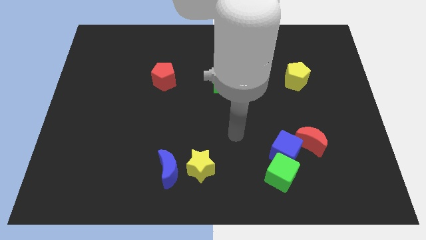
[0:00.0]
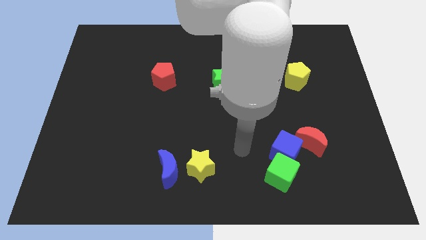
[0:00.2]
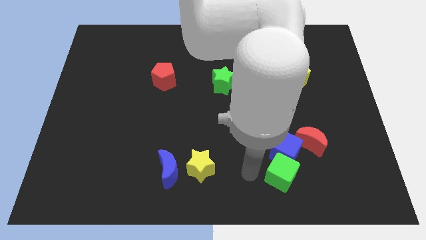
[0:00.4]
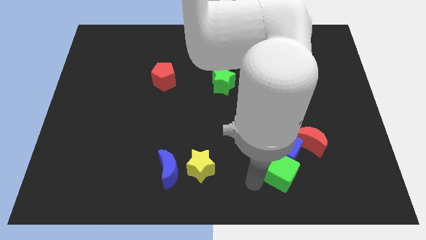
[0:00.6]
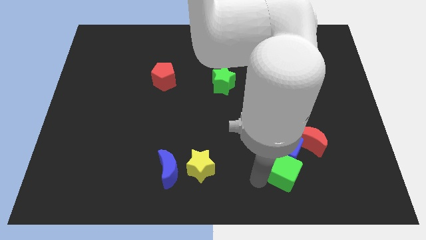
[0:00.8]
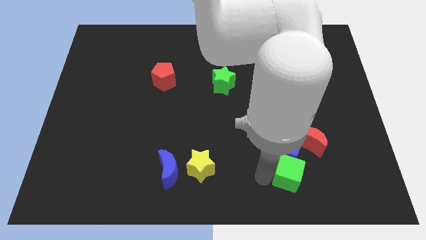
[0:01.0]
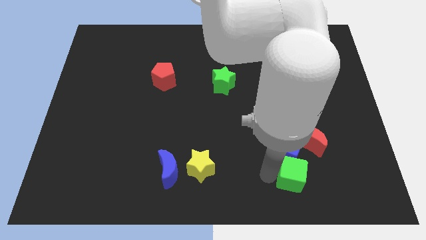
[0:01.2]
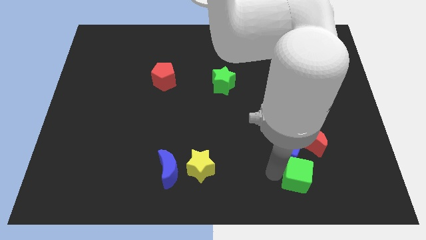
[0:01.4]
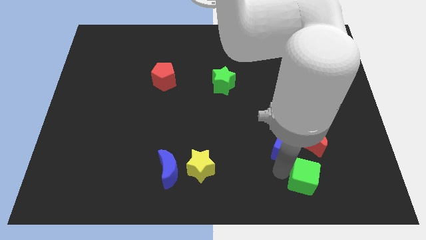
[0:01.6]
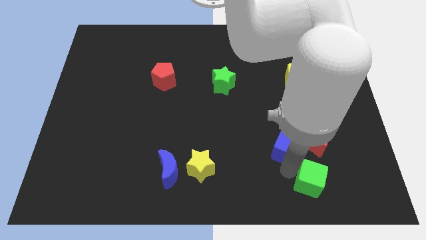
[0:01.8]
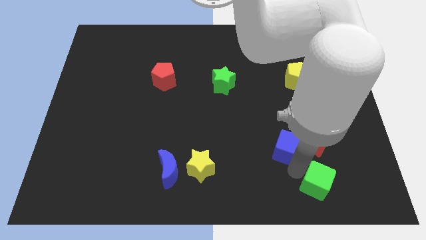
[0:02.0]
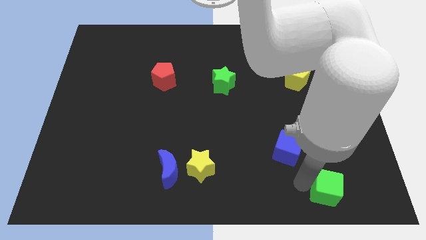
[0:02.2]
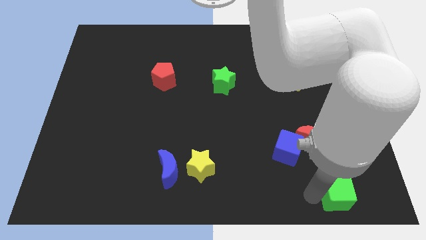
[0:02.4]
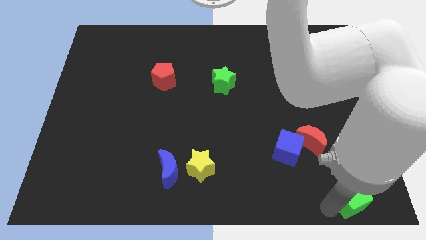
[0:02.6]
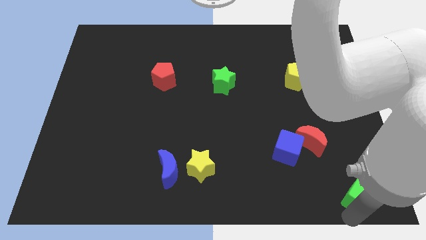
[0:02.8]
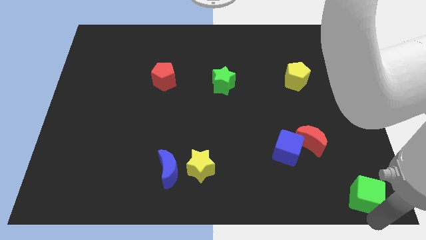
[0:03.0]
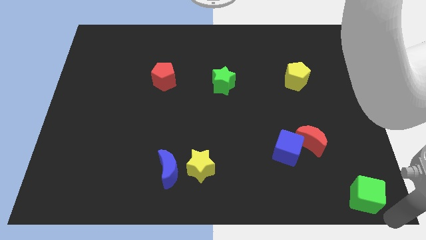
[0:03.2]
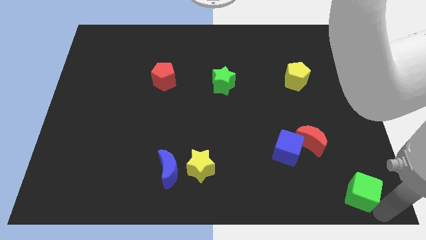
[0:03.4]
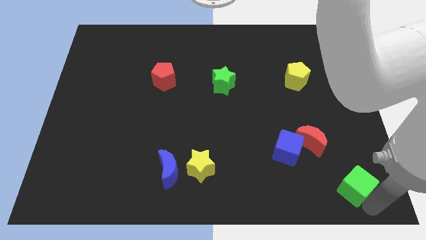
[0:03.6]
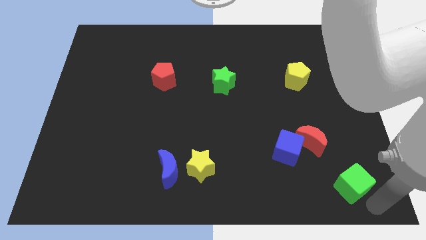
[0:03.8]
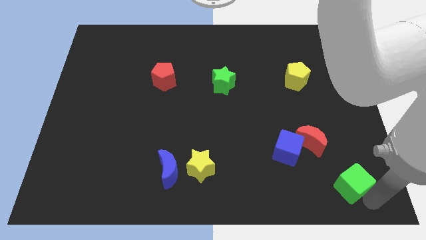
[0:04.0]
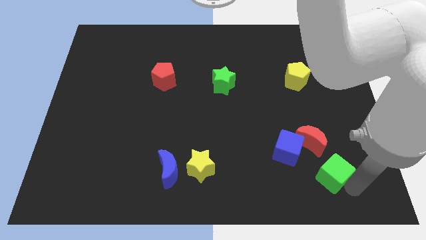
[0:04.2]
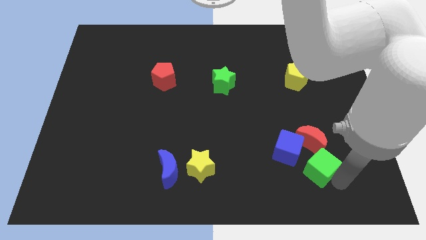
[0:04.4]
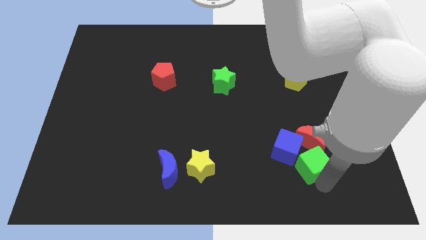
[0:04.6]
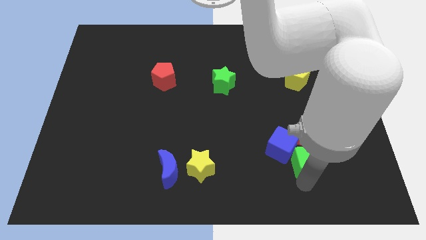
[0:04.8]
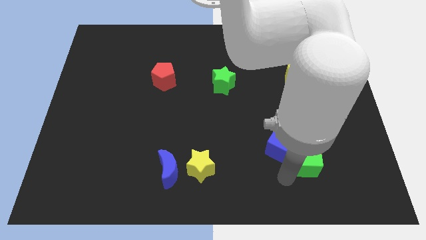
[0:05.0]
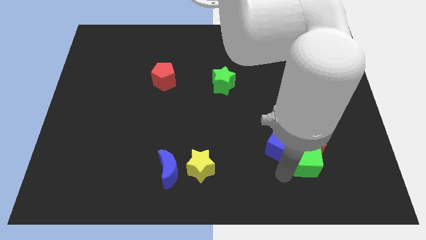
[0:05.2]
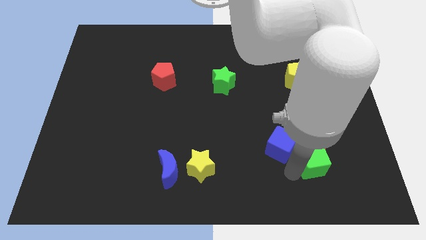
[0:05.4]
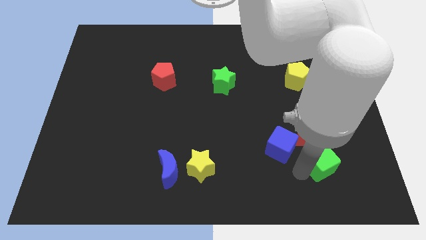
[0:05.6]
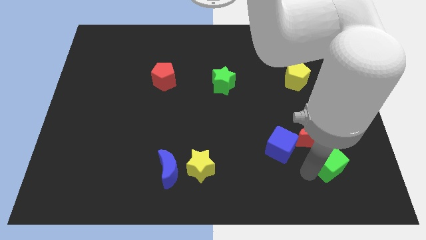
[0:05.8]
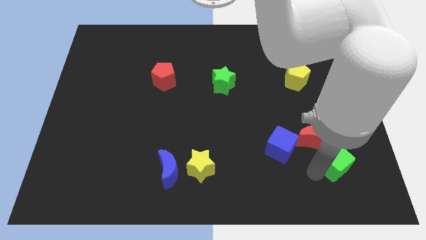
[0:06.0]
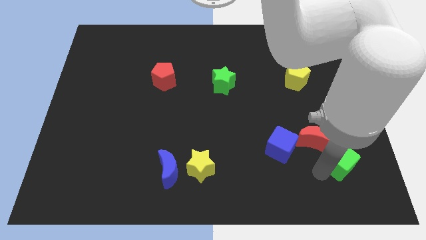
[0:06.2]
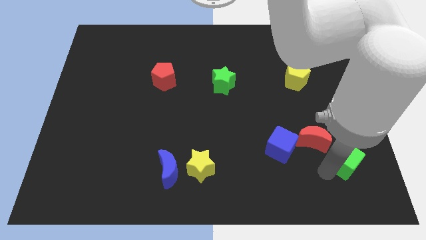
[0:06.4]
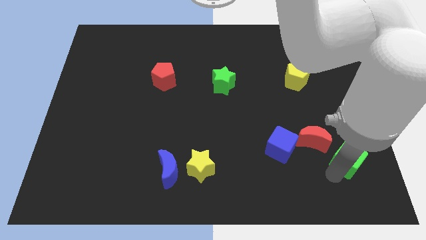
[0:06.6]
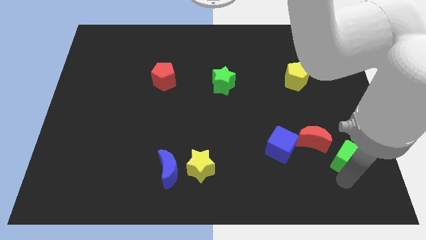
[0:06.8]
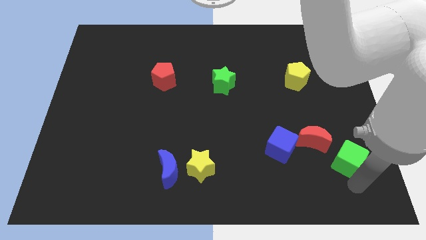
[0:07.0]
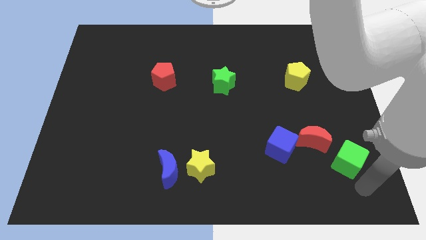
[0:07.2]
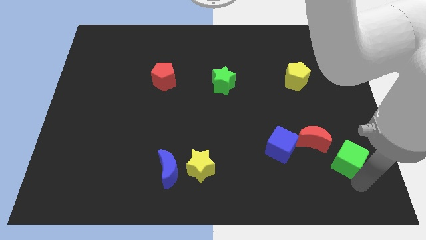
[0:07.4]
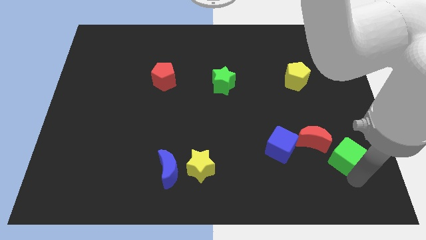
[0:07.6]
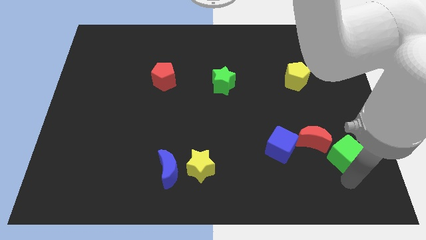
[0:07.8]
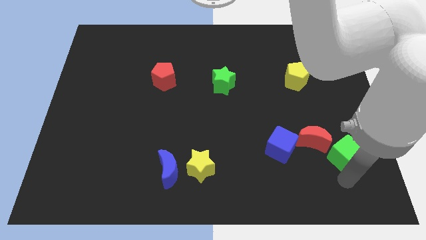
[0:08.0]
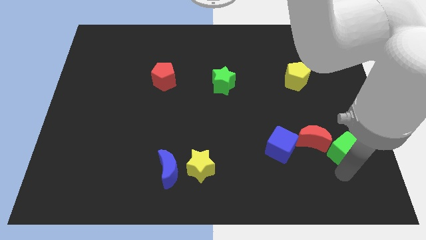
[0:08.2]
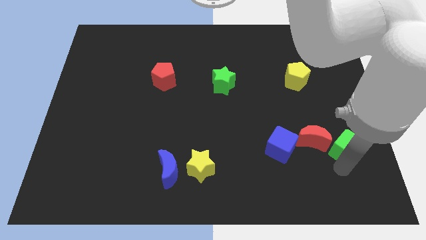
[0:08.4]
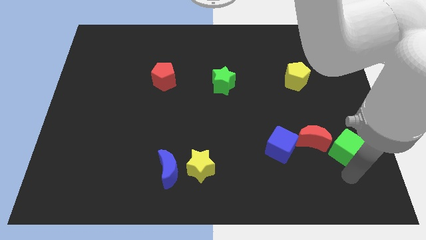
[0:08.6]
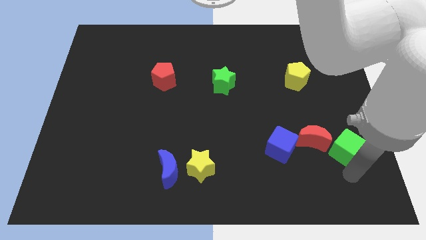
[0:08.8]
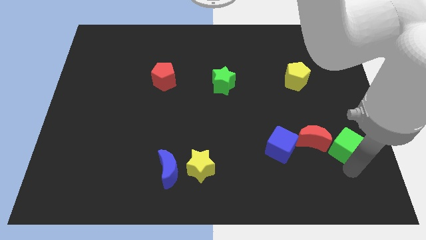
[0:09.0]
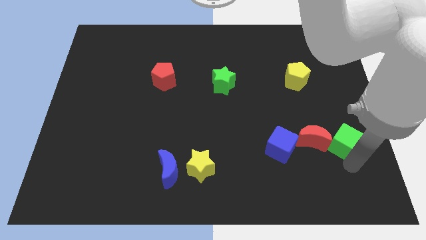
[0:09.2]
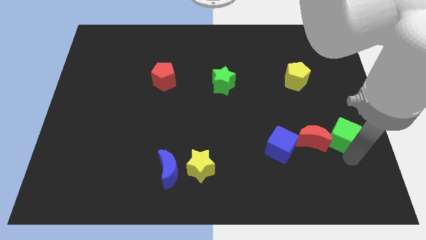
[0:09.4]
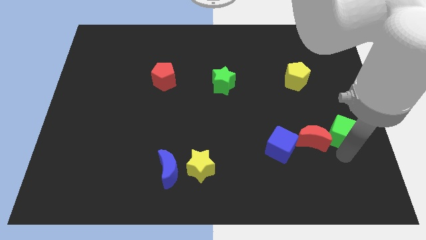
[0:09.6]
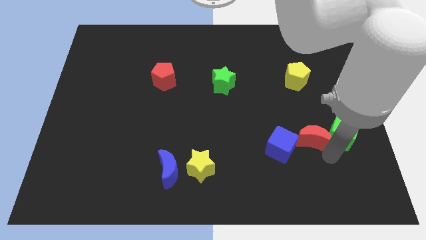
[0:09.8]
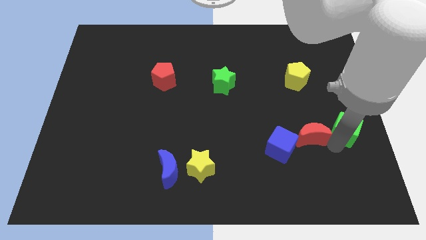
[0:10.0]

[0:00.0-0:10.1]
push the green cube to the right side

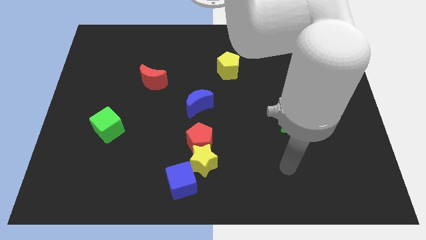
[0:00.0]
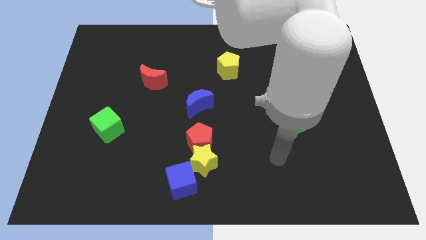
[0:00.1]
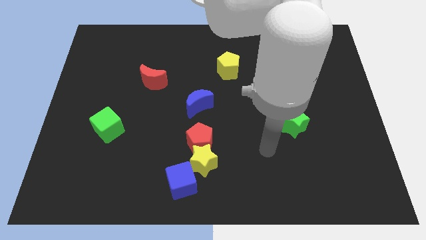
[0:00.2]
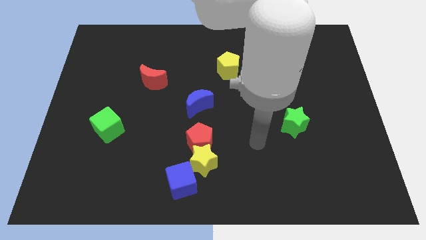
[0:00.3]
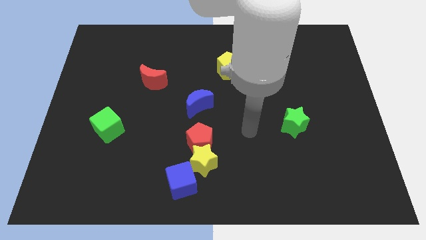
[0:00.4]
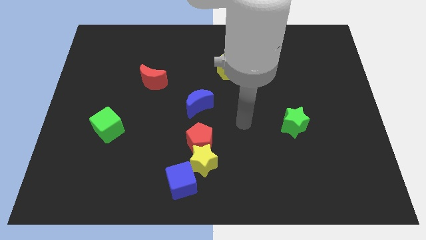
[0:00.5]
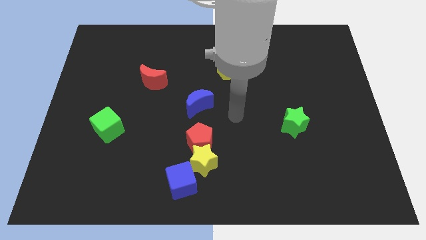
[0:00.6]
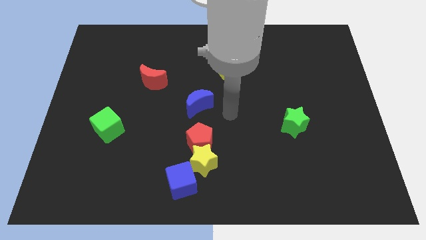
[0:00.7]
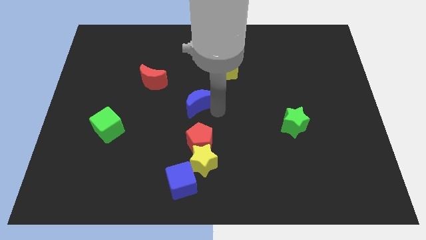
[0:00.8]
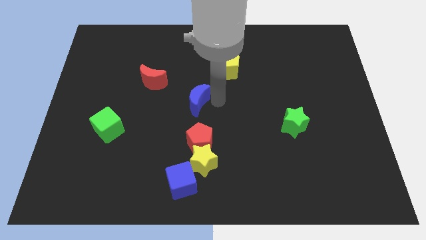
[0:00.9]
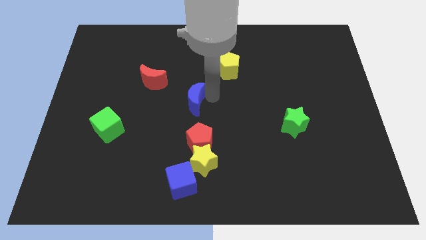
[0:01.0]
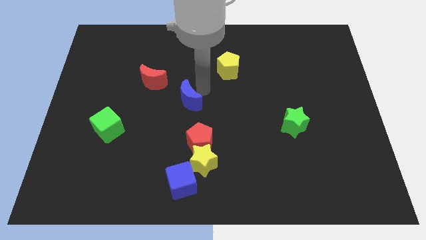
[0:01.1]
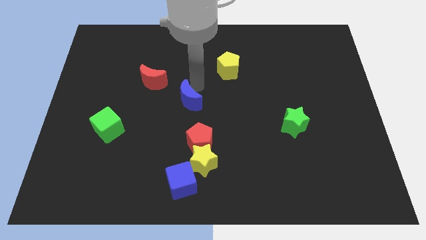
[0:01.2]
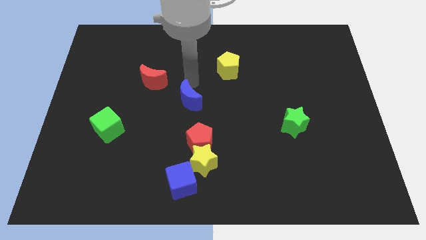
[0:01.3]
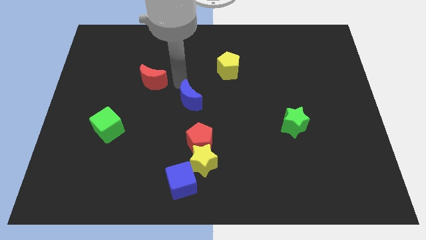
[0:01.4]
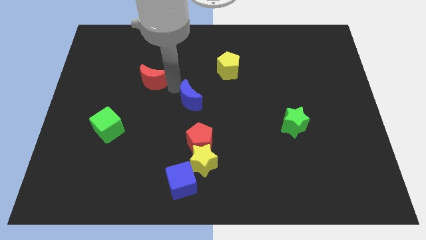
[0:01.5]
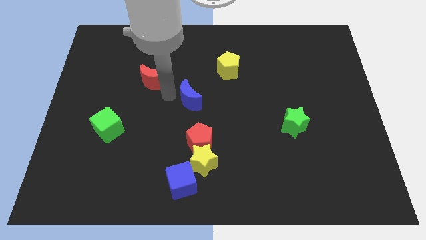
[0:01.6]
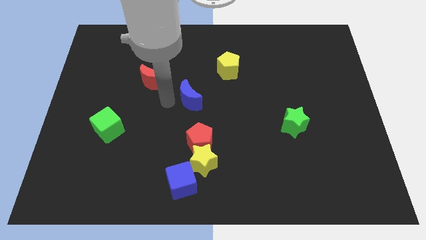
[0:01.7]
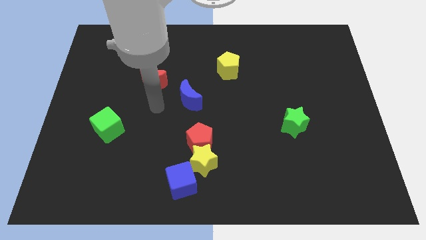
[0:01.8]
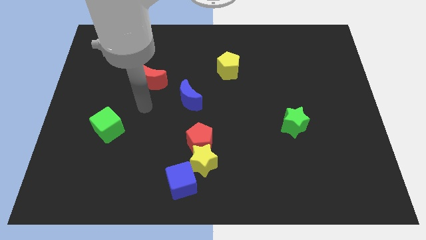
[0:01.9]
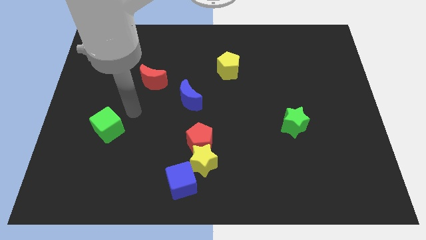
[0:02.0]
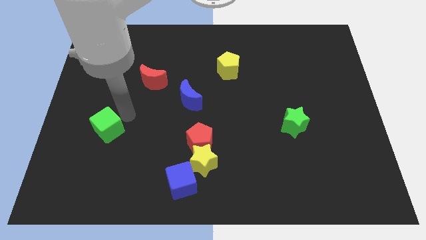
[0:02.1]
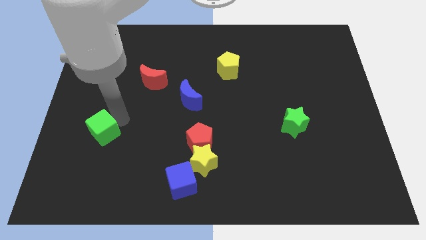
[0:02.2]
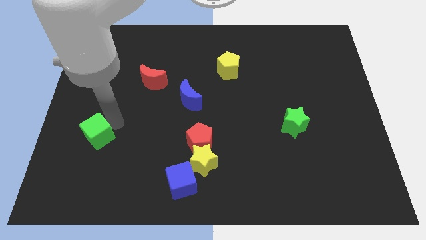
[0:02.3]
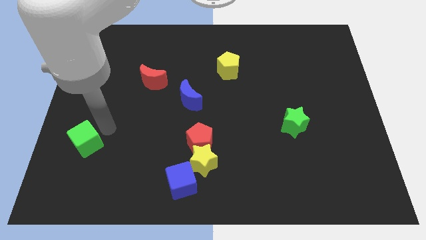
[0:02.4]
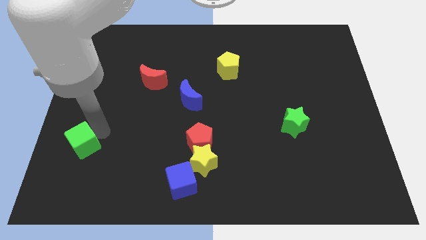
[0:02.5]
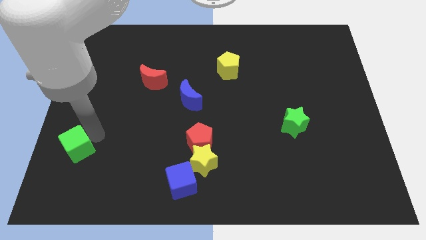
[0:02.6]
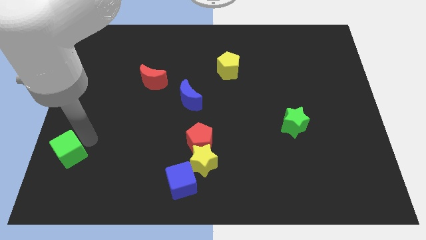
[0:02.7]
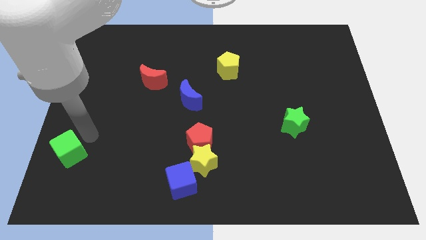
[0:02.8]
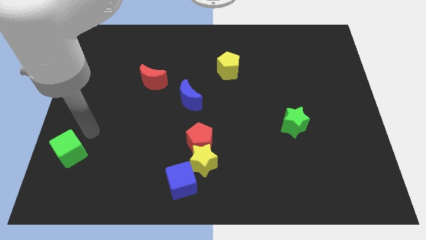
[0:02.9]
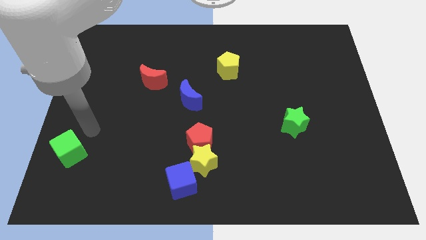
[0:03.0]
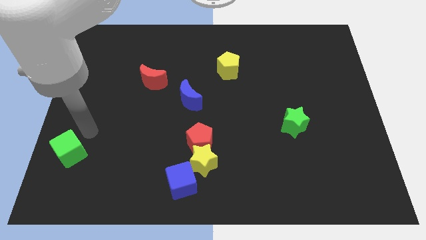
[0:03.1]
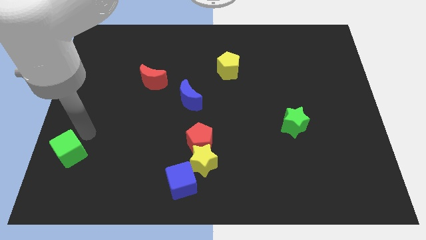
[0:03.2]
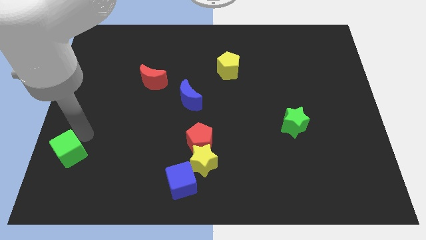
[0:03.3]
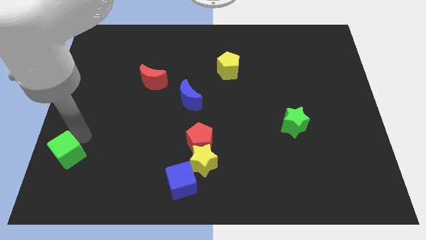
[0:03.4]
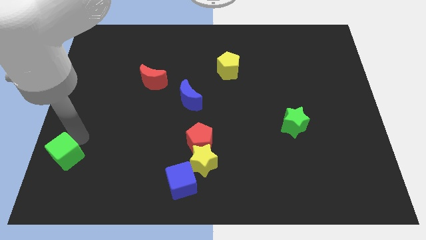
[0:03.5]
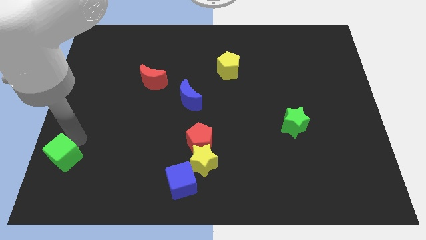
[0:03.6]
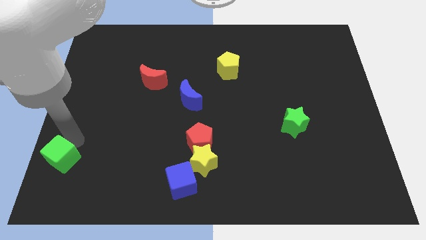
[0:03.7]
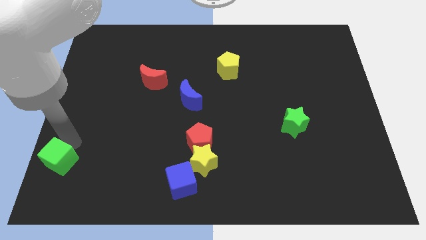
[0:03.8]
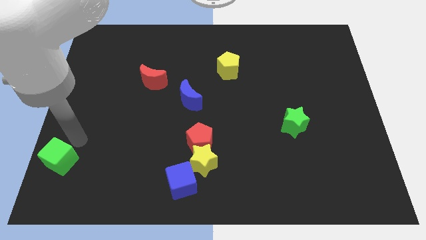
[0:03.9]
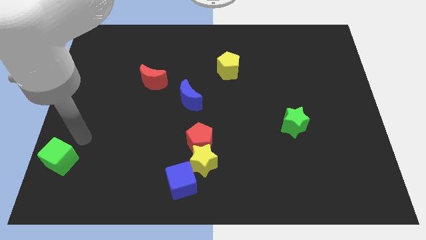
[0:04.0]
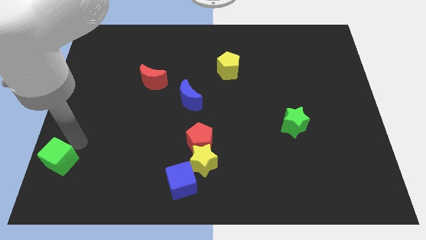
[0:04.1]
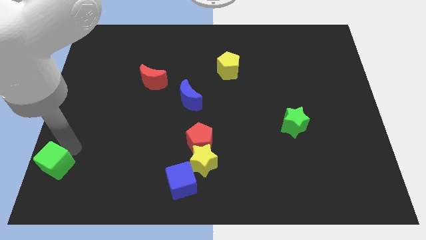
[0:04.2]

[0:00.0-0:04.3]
put the green cube to the bottom left of the board
